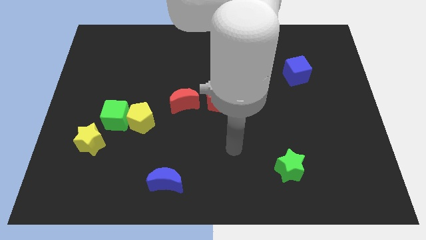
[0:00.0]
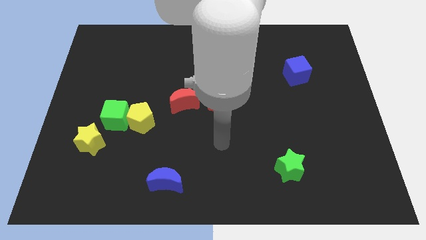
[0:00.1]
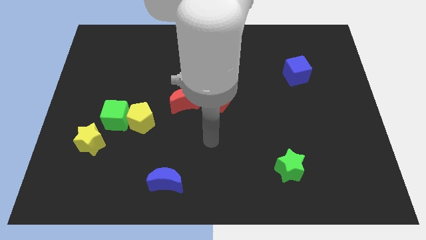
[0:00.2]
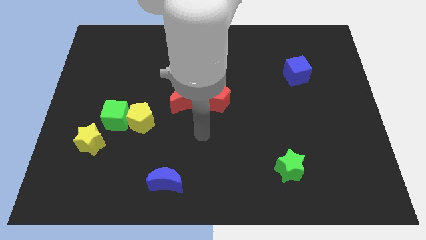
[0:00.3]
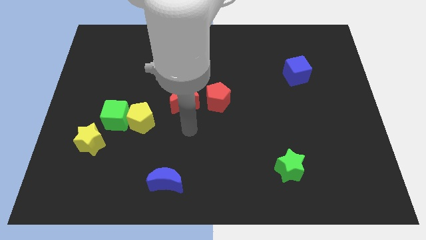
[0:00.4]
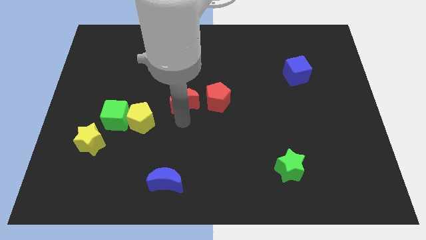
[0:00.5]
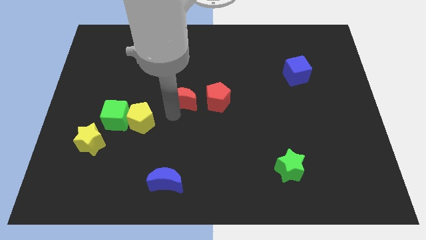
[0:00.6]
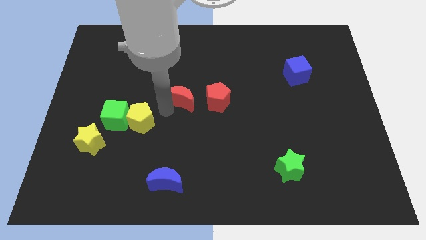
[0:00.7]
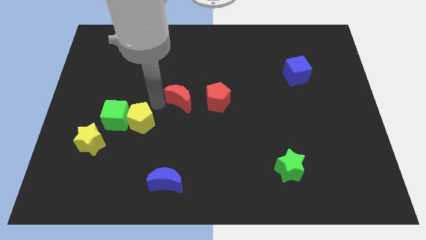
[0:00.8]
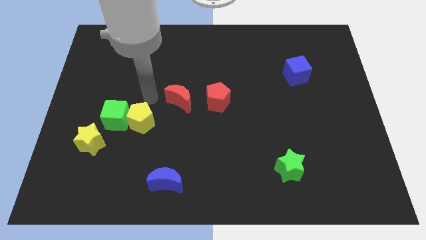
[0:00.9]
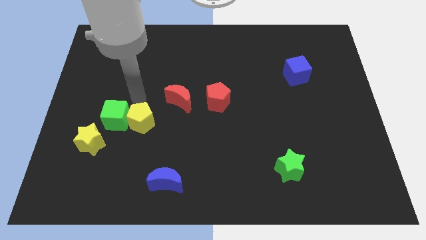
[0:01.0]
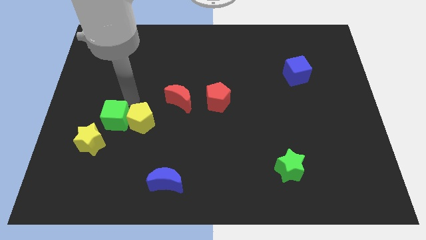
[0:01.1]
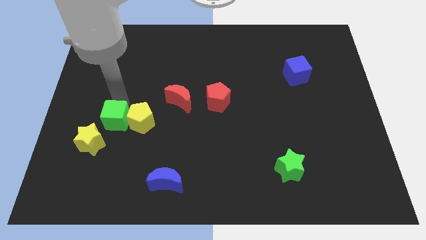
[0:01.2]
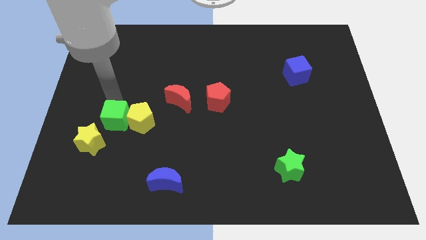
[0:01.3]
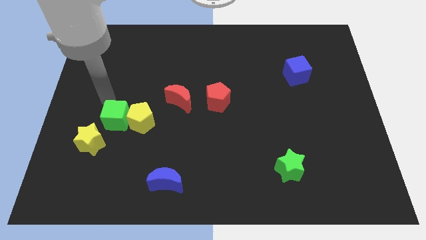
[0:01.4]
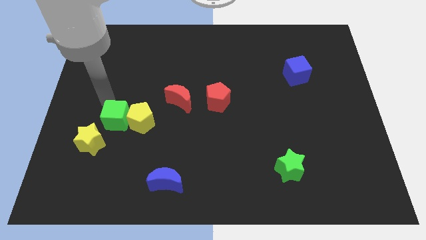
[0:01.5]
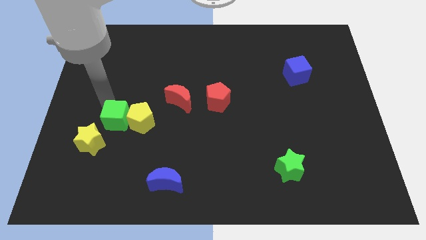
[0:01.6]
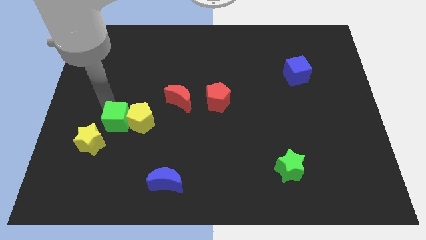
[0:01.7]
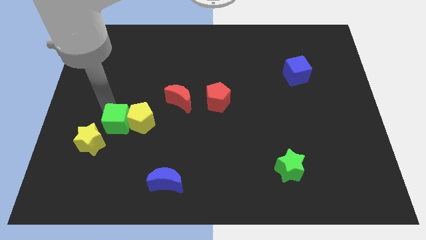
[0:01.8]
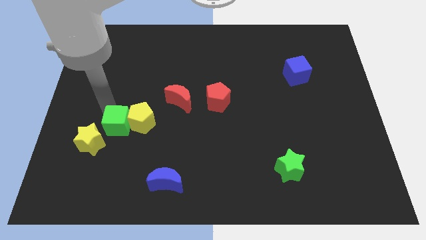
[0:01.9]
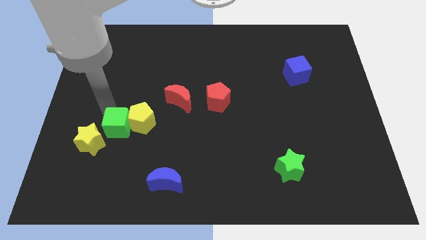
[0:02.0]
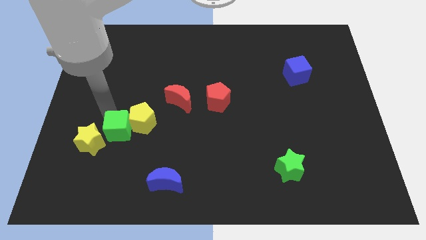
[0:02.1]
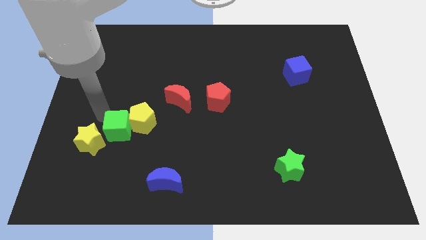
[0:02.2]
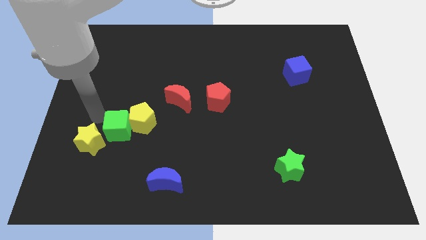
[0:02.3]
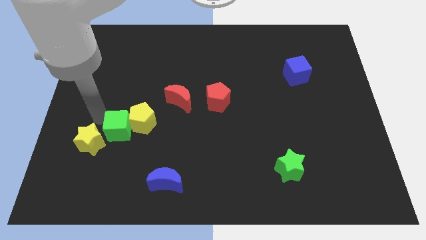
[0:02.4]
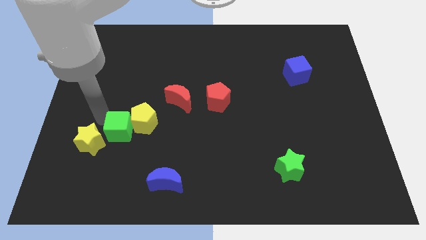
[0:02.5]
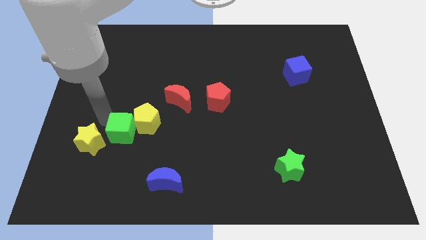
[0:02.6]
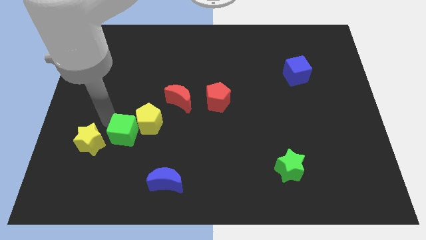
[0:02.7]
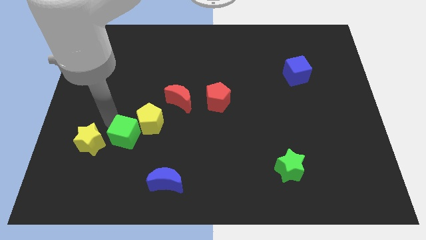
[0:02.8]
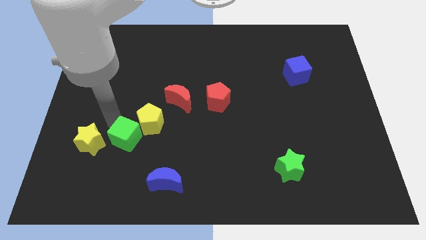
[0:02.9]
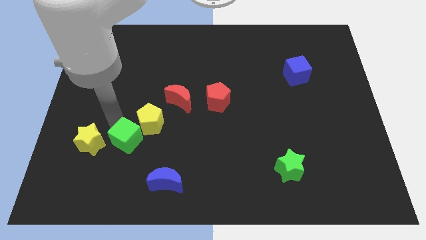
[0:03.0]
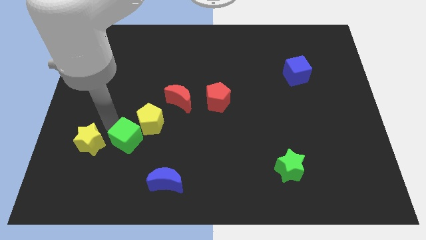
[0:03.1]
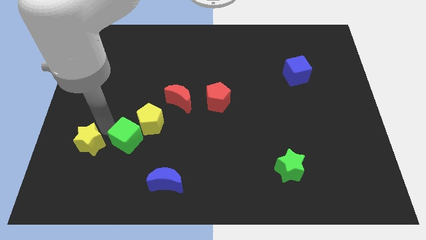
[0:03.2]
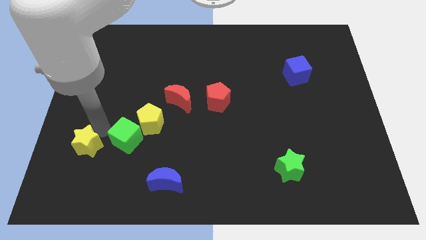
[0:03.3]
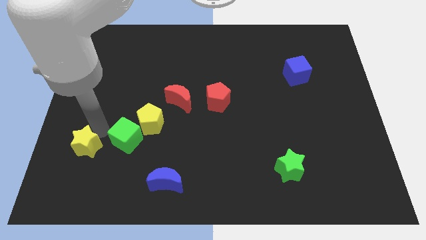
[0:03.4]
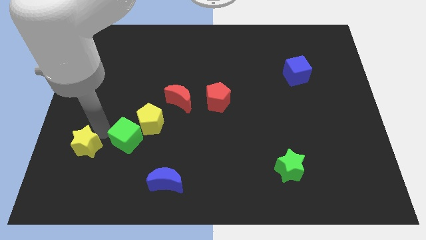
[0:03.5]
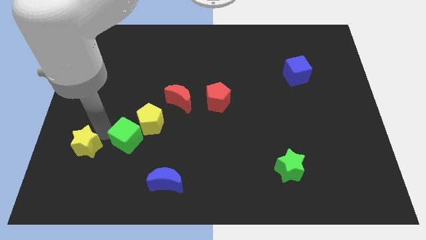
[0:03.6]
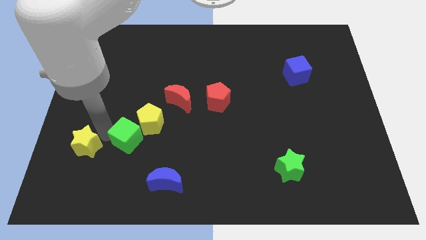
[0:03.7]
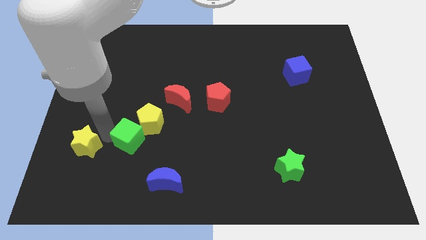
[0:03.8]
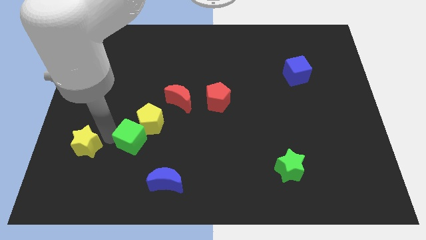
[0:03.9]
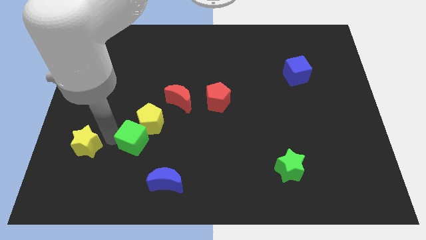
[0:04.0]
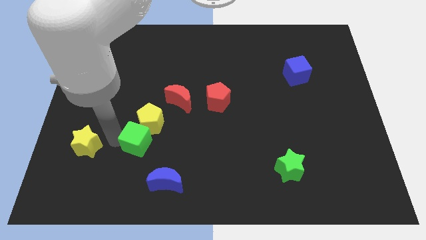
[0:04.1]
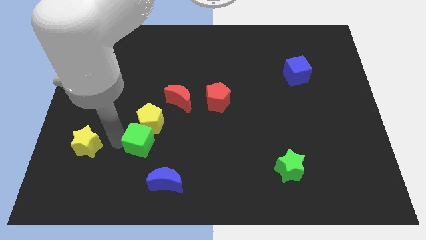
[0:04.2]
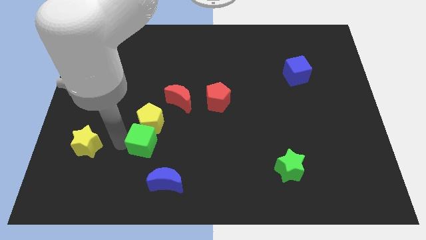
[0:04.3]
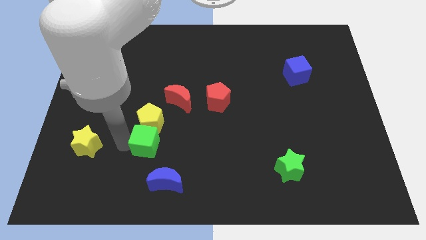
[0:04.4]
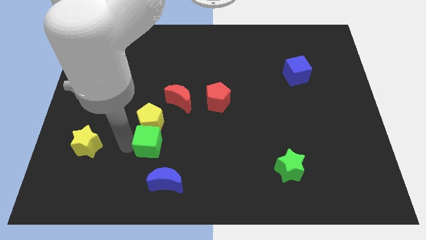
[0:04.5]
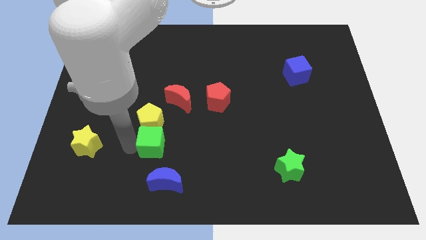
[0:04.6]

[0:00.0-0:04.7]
slightly slide the green cube to the right

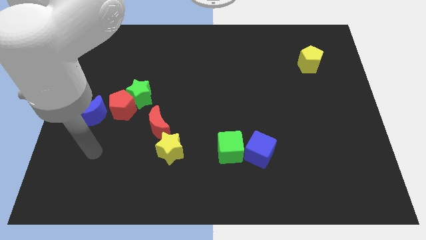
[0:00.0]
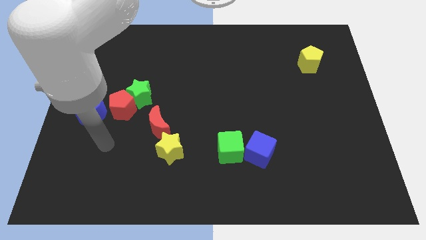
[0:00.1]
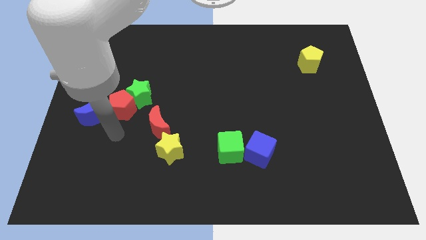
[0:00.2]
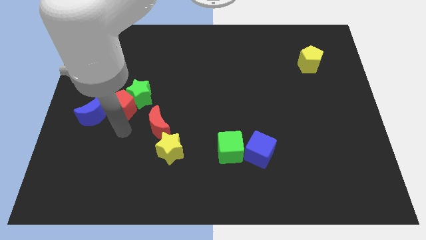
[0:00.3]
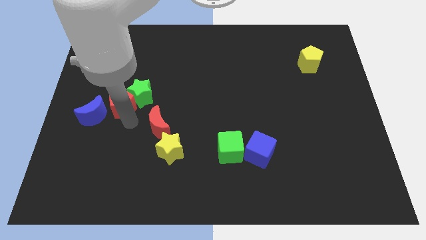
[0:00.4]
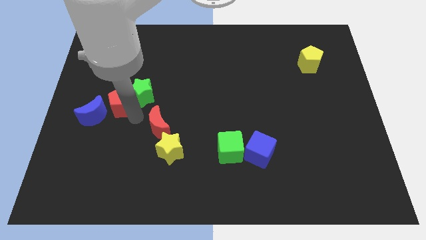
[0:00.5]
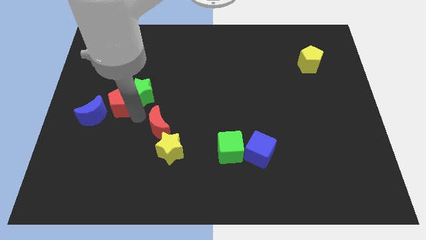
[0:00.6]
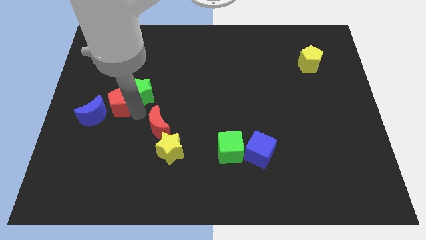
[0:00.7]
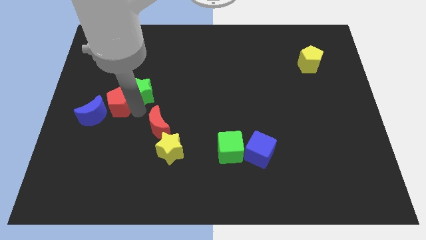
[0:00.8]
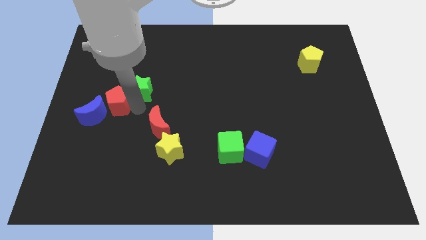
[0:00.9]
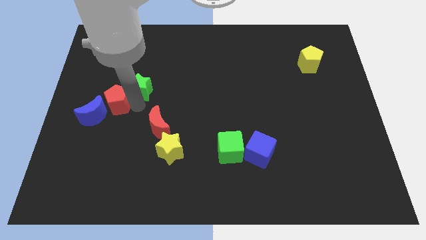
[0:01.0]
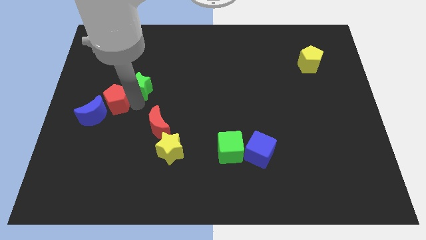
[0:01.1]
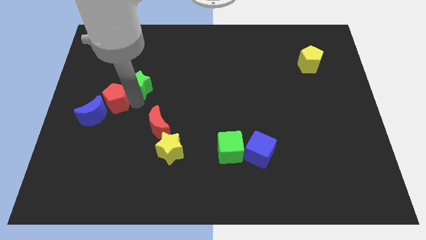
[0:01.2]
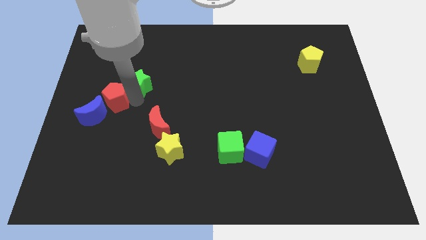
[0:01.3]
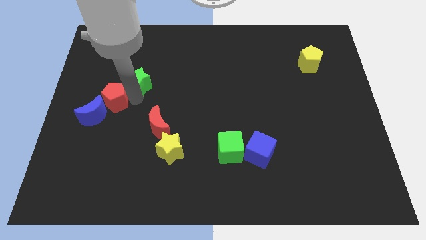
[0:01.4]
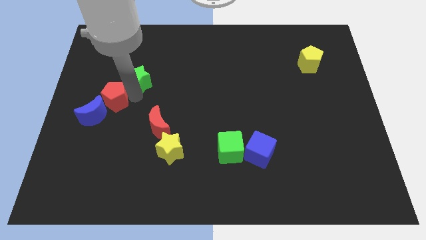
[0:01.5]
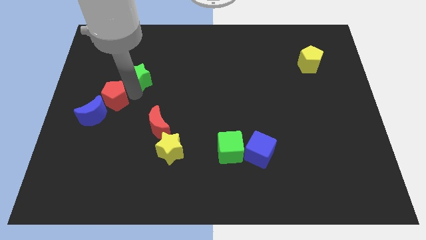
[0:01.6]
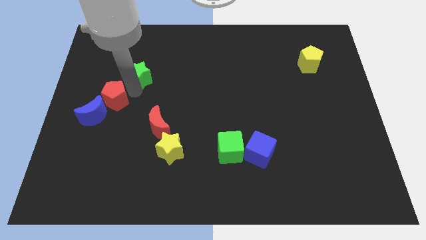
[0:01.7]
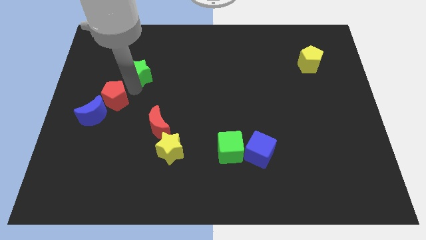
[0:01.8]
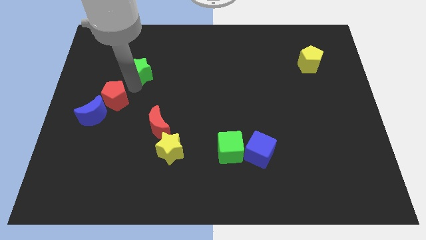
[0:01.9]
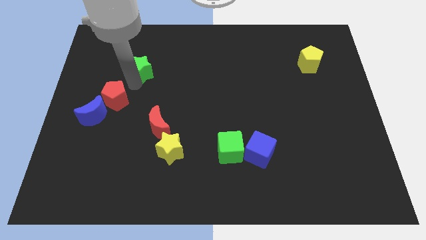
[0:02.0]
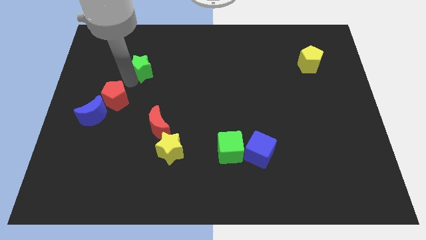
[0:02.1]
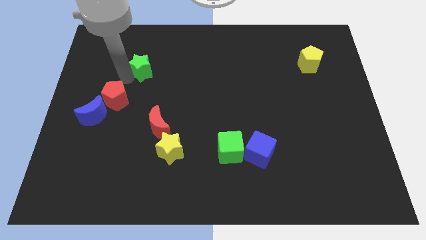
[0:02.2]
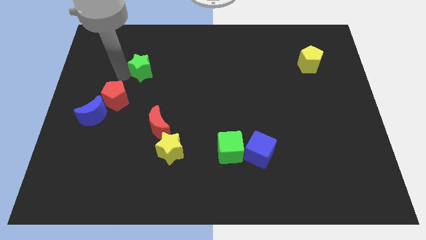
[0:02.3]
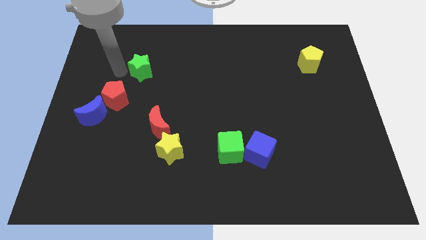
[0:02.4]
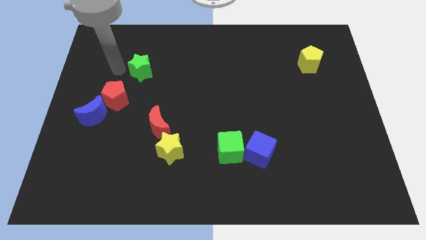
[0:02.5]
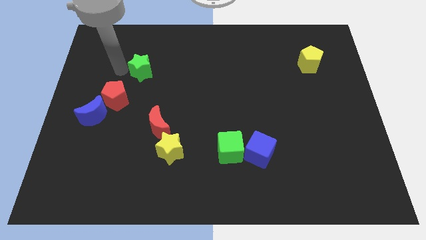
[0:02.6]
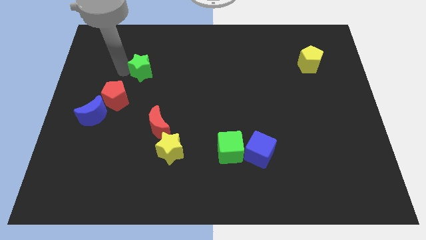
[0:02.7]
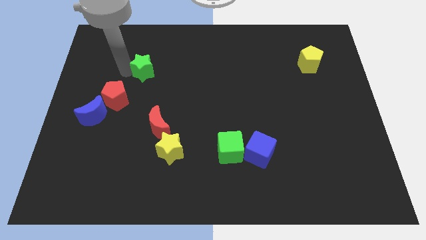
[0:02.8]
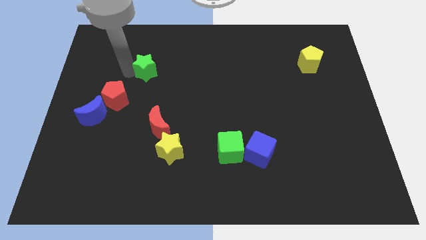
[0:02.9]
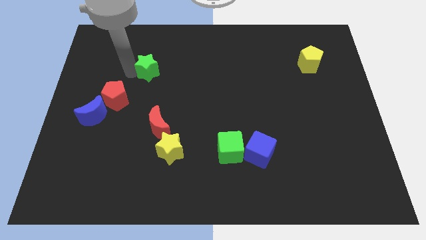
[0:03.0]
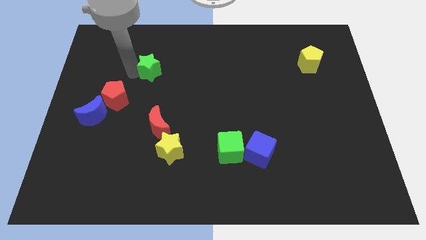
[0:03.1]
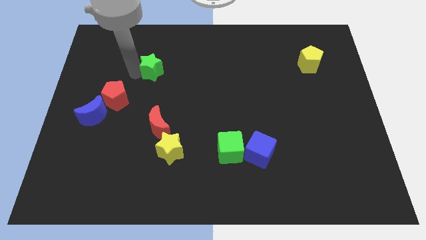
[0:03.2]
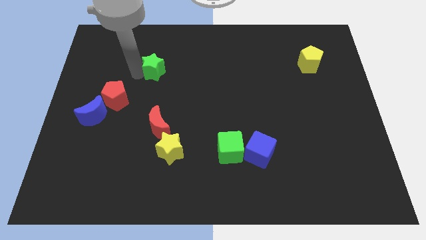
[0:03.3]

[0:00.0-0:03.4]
slightly move the green star up and to the right
